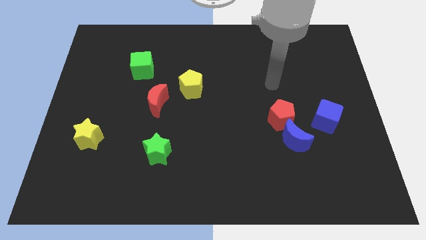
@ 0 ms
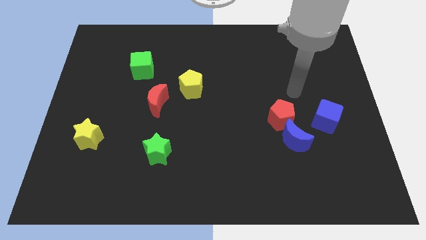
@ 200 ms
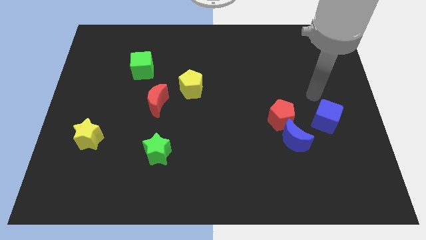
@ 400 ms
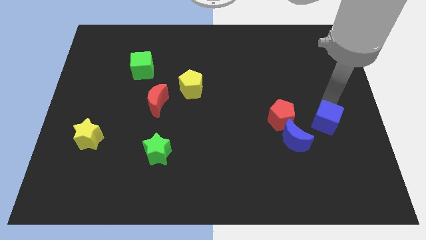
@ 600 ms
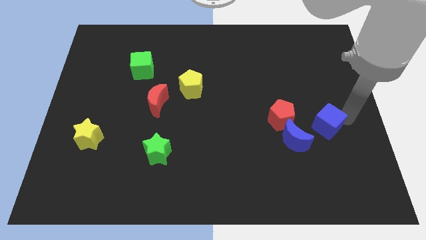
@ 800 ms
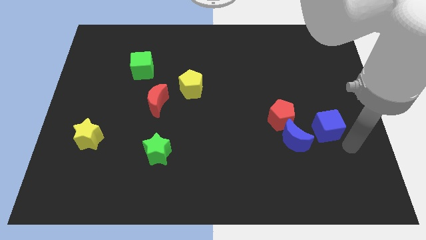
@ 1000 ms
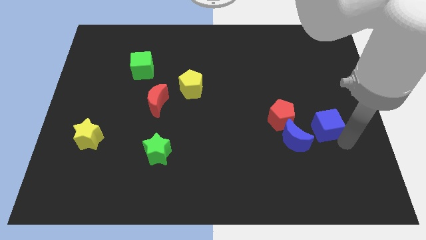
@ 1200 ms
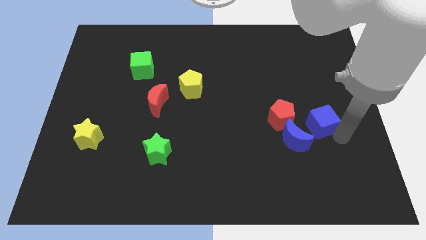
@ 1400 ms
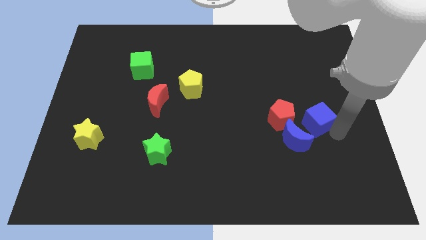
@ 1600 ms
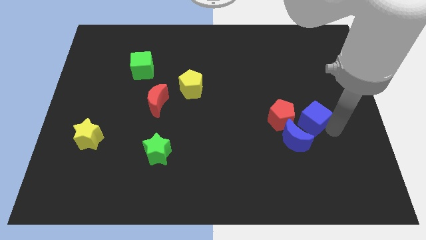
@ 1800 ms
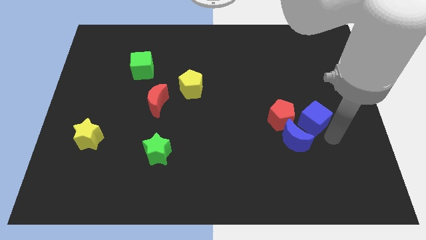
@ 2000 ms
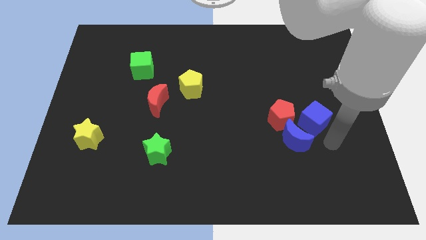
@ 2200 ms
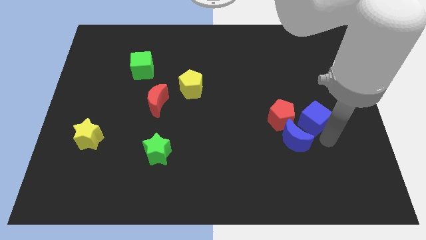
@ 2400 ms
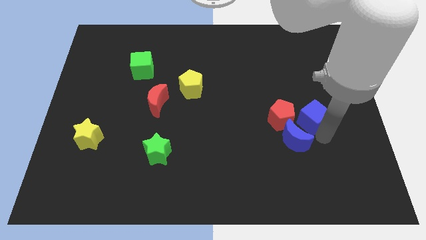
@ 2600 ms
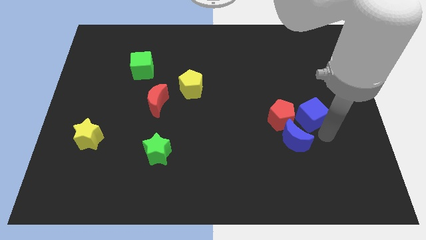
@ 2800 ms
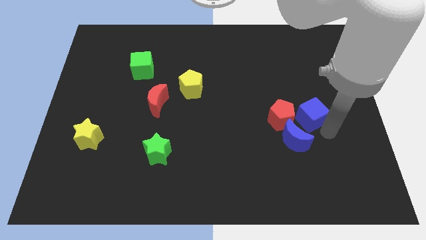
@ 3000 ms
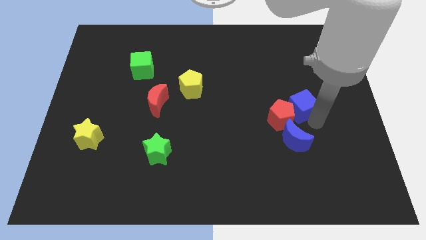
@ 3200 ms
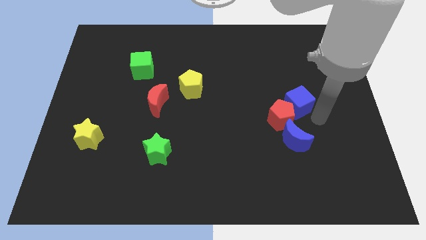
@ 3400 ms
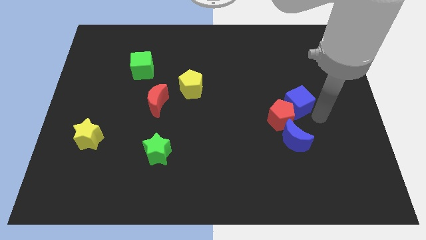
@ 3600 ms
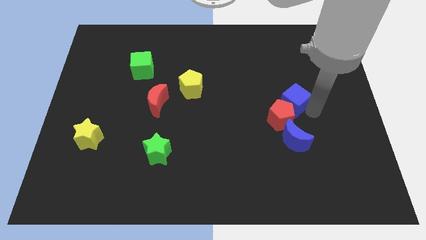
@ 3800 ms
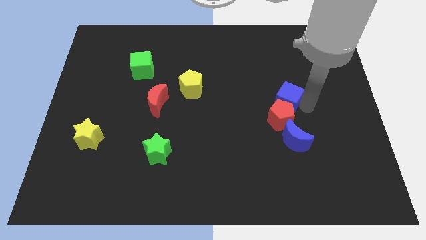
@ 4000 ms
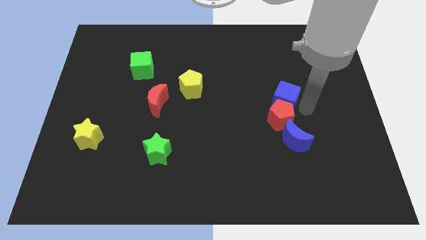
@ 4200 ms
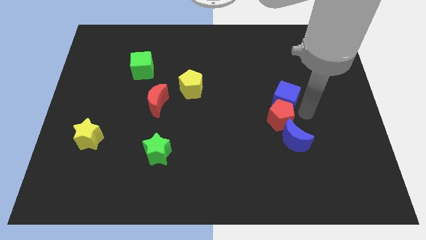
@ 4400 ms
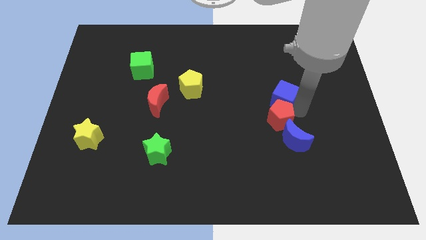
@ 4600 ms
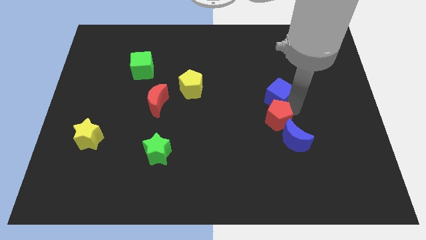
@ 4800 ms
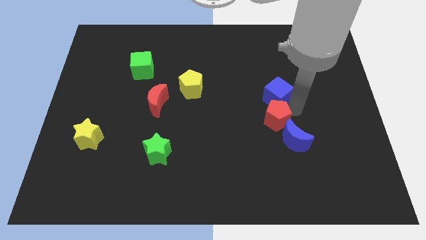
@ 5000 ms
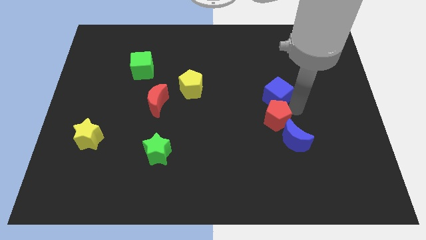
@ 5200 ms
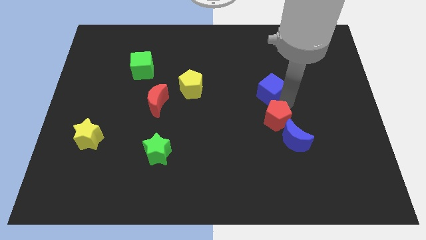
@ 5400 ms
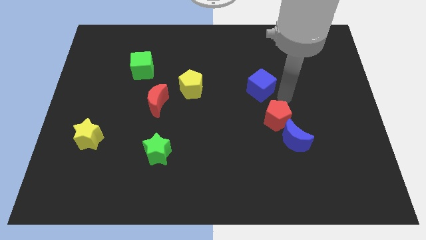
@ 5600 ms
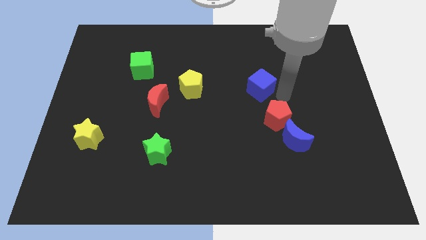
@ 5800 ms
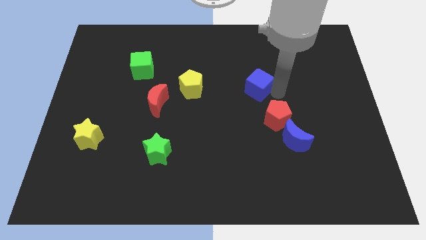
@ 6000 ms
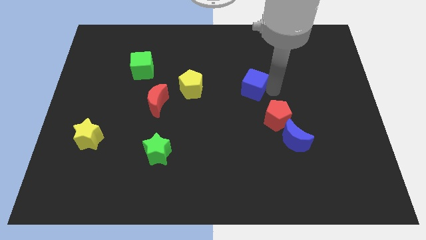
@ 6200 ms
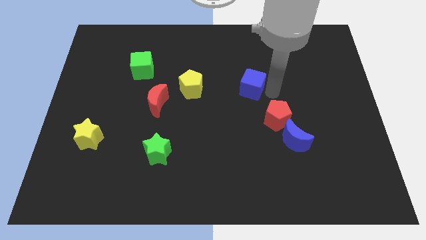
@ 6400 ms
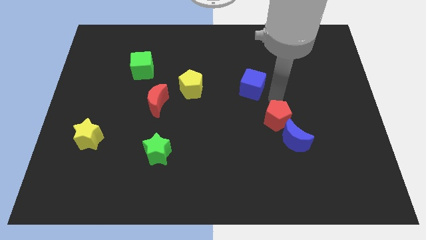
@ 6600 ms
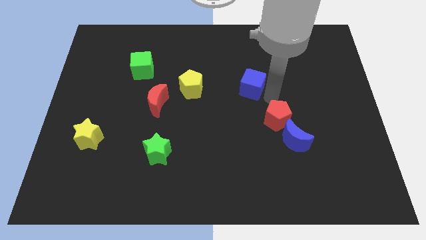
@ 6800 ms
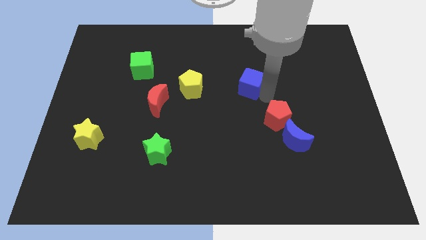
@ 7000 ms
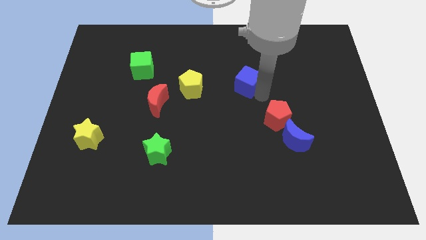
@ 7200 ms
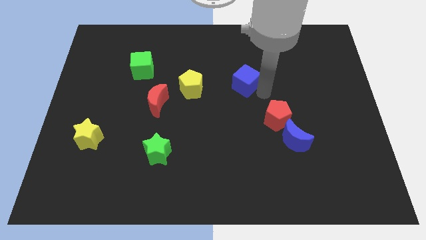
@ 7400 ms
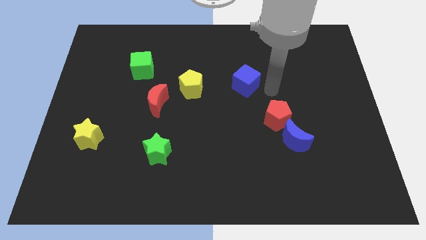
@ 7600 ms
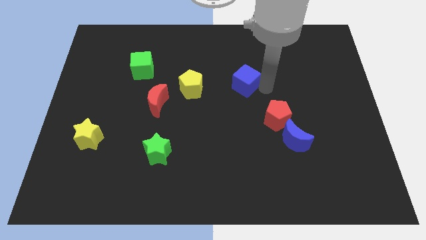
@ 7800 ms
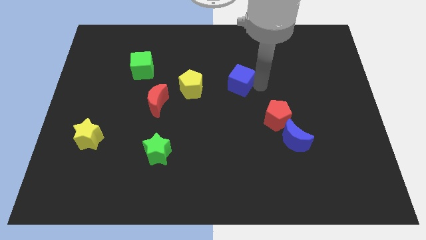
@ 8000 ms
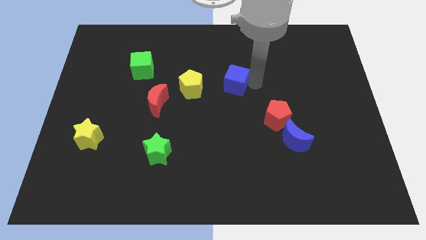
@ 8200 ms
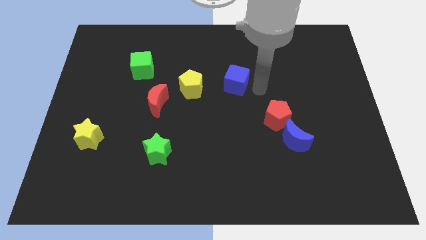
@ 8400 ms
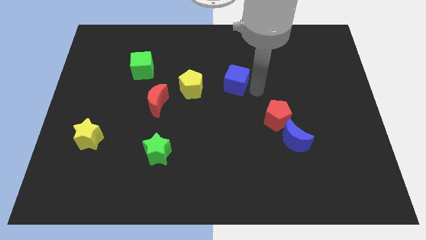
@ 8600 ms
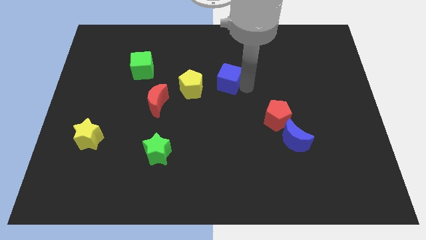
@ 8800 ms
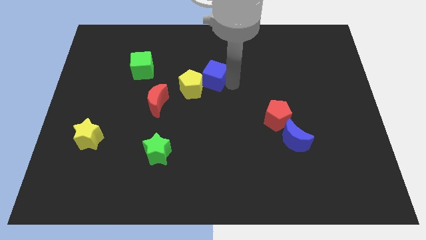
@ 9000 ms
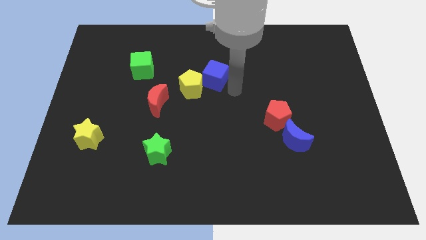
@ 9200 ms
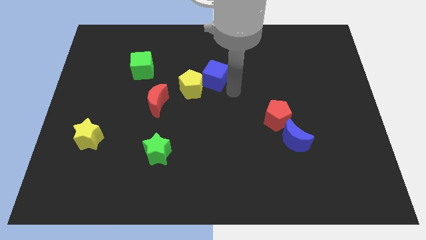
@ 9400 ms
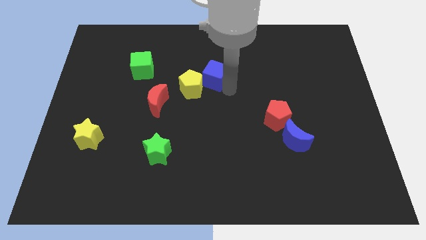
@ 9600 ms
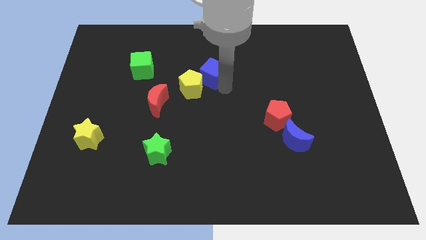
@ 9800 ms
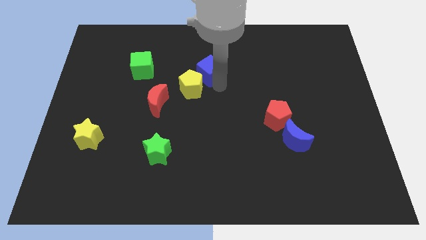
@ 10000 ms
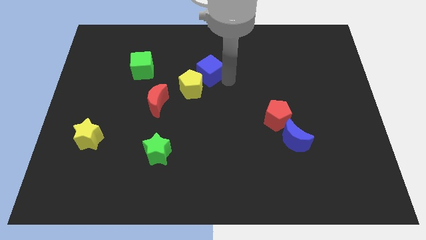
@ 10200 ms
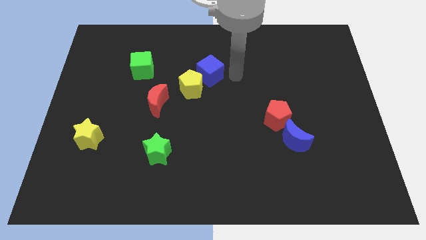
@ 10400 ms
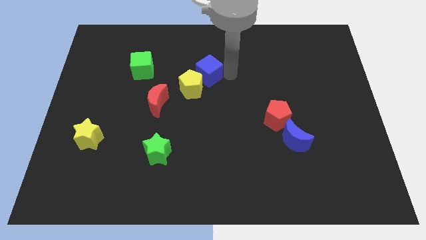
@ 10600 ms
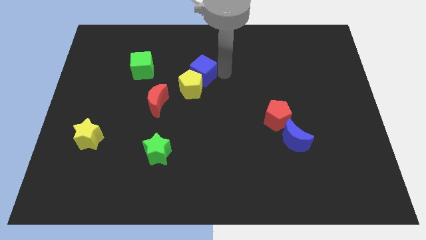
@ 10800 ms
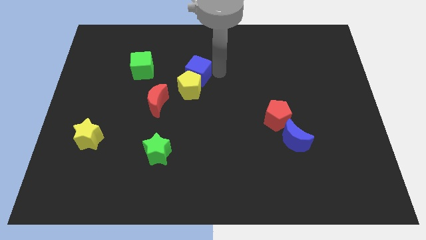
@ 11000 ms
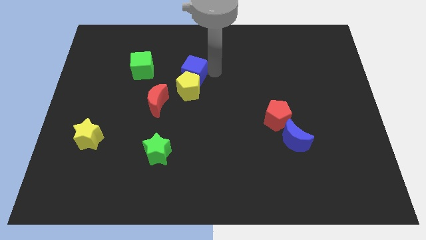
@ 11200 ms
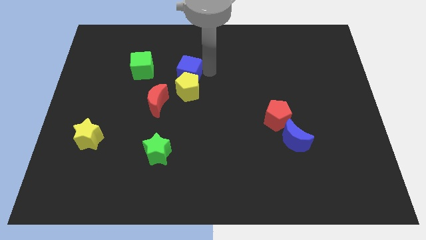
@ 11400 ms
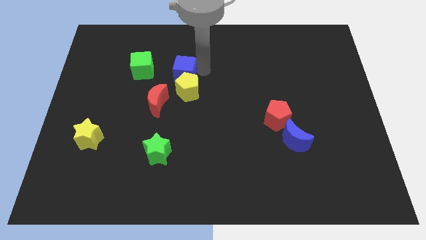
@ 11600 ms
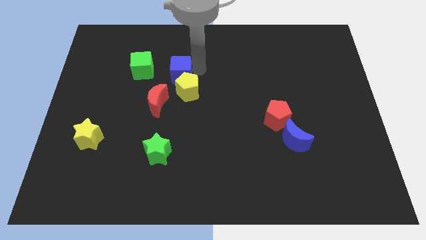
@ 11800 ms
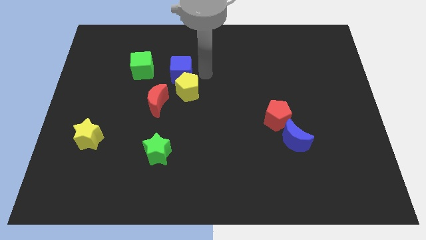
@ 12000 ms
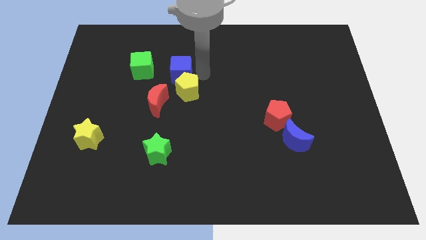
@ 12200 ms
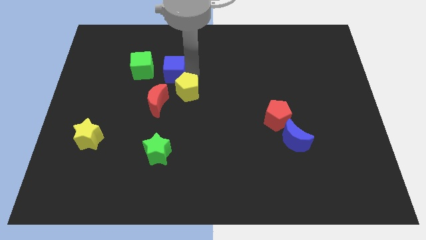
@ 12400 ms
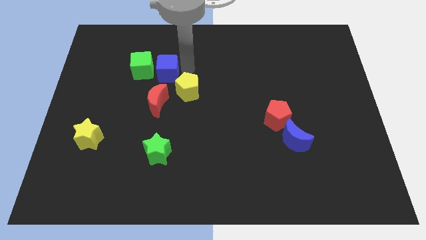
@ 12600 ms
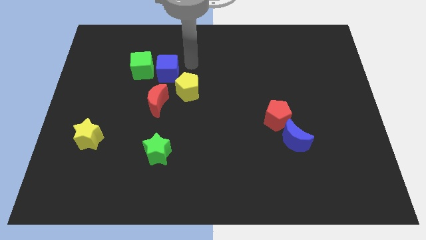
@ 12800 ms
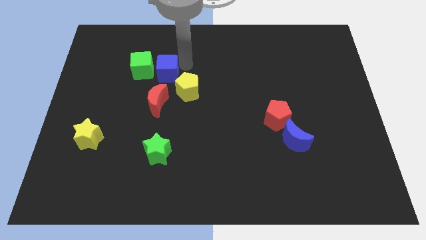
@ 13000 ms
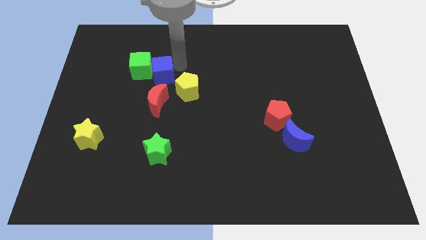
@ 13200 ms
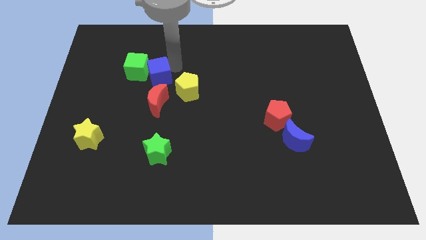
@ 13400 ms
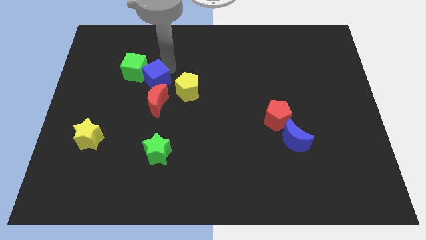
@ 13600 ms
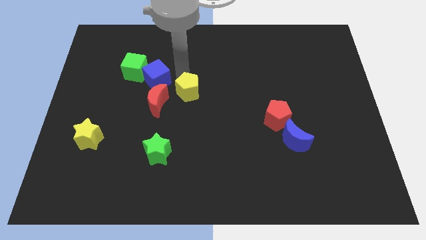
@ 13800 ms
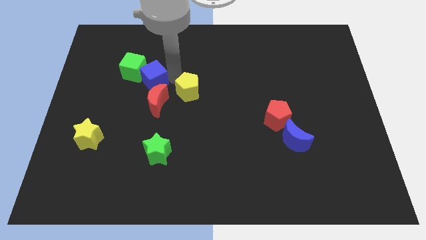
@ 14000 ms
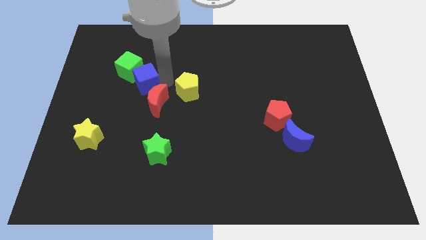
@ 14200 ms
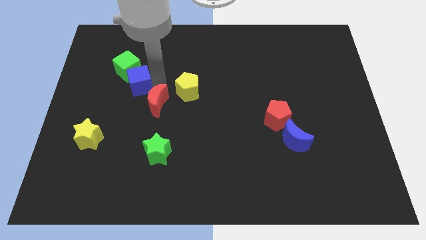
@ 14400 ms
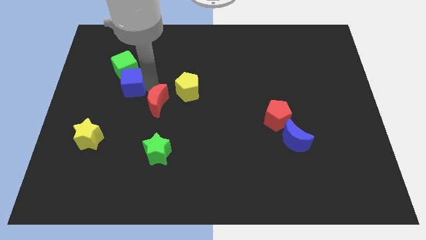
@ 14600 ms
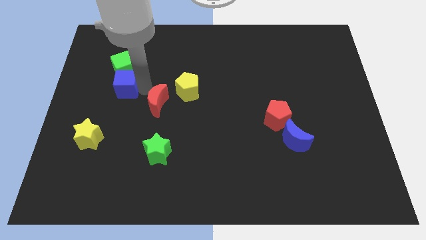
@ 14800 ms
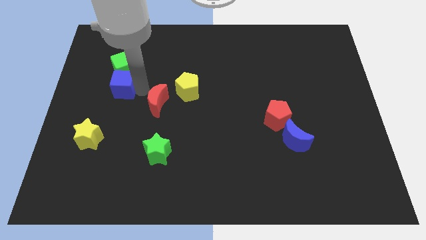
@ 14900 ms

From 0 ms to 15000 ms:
push the blue cube diagonally down and to the left of the green cube

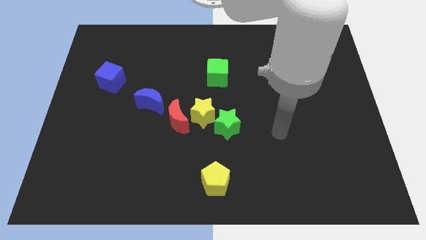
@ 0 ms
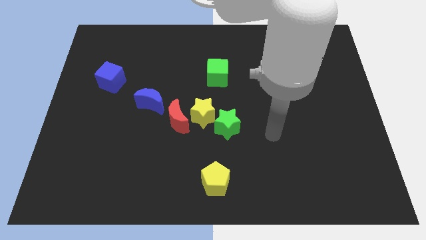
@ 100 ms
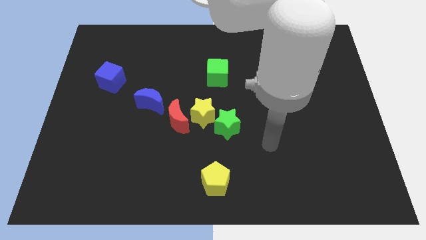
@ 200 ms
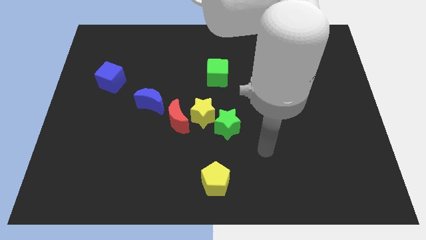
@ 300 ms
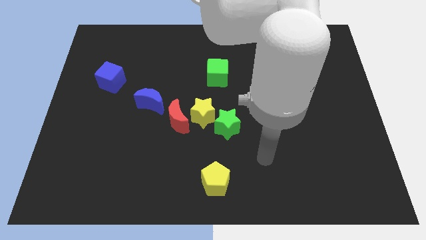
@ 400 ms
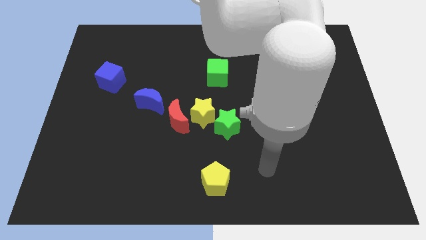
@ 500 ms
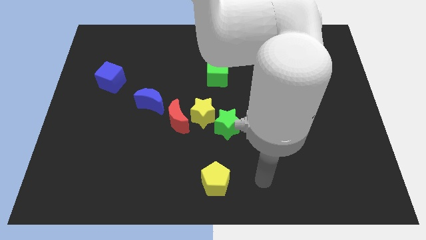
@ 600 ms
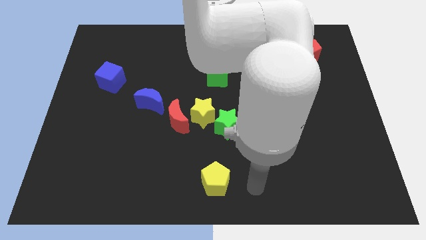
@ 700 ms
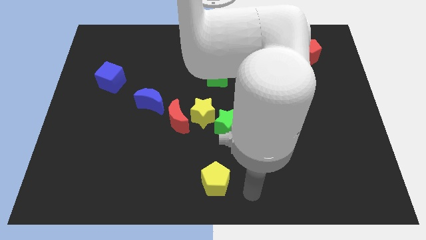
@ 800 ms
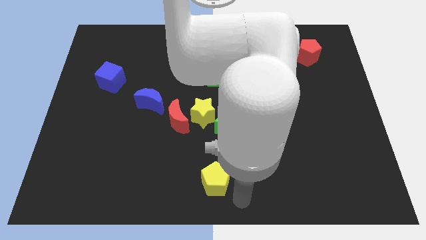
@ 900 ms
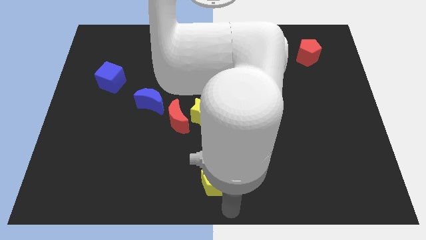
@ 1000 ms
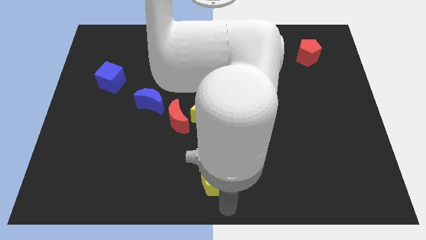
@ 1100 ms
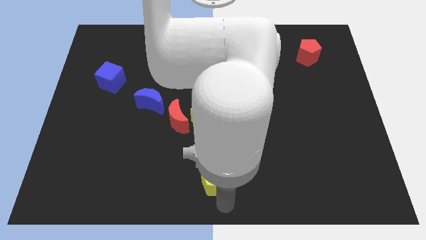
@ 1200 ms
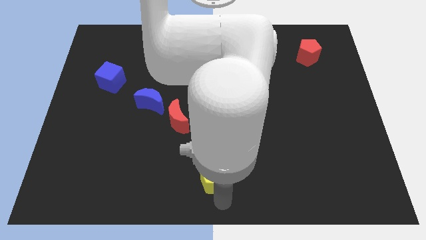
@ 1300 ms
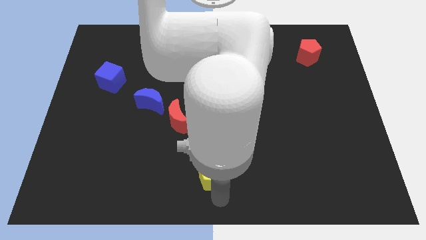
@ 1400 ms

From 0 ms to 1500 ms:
push the yellow pentagon below the yellow star
